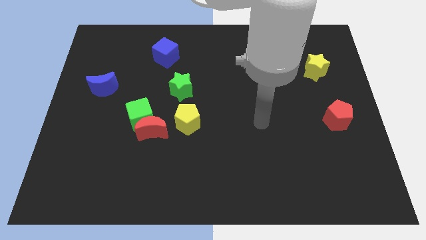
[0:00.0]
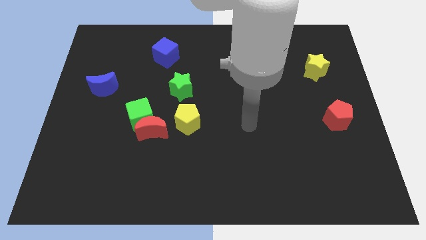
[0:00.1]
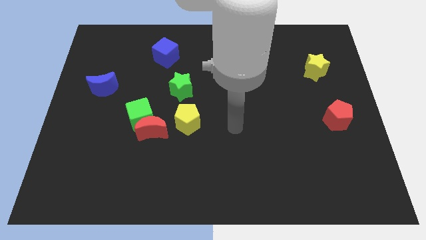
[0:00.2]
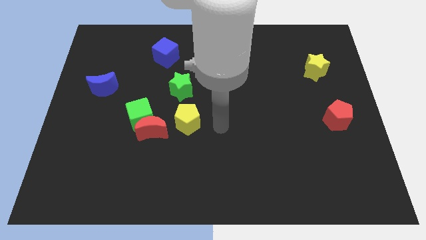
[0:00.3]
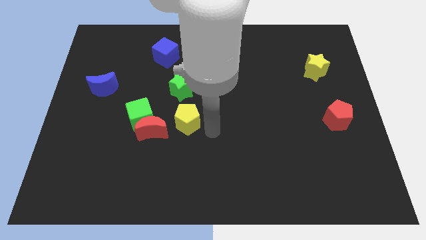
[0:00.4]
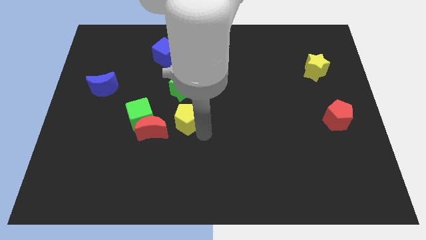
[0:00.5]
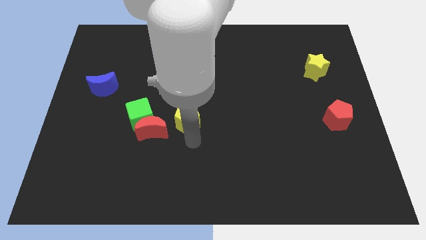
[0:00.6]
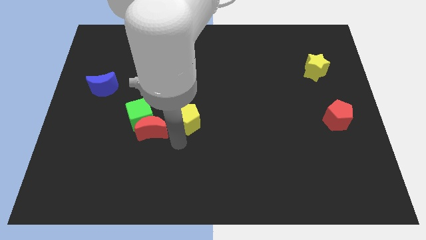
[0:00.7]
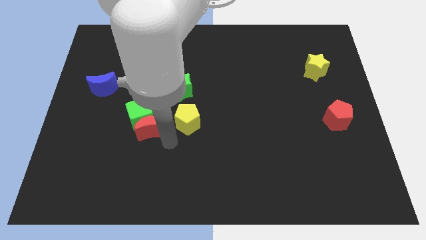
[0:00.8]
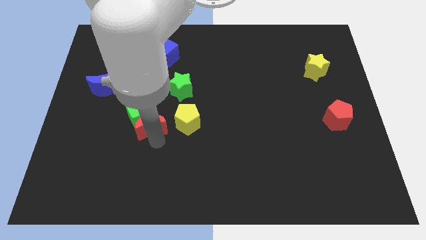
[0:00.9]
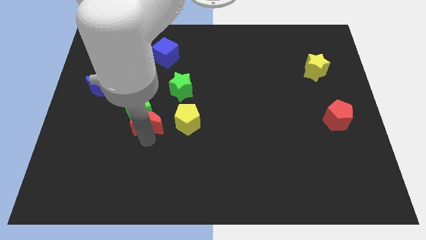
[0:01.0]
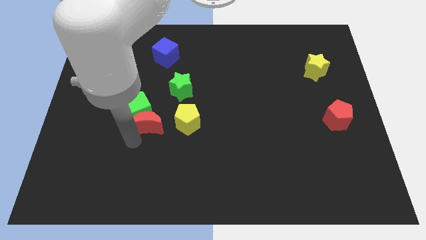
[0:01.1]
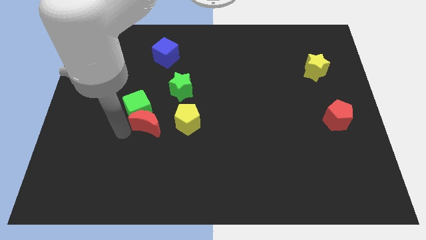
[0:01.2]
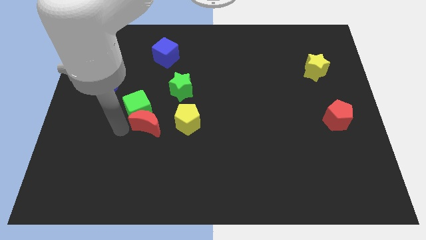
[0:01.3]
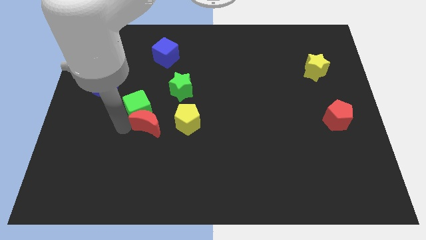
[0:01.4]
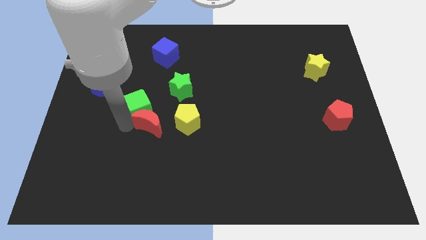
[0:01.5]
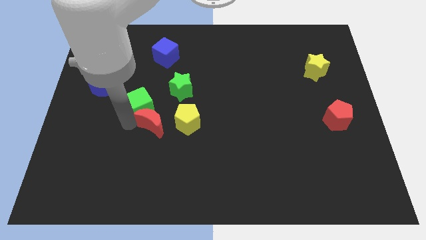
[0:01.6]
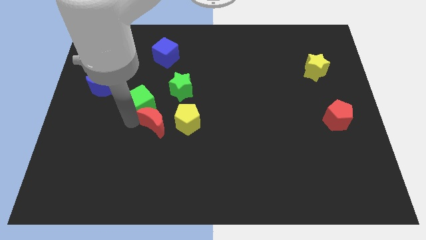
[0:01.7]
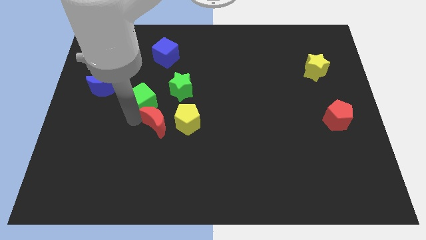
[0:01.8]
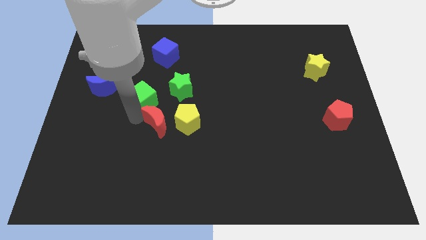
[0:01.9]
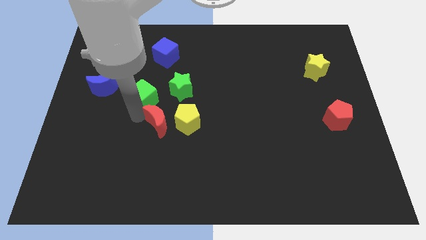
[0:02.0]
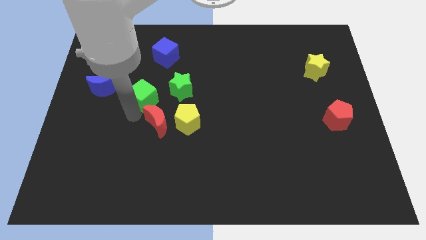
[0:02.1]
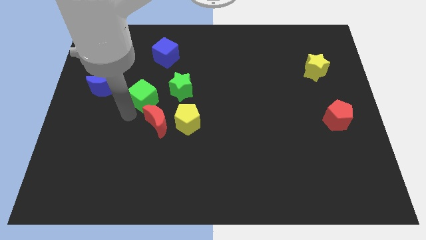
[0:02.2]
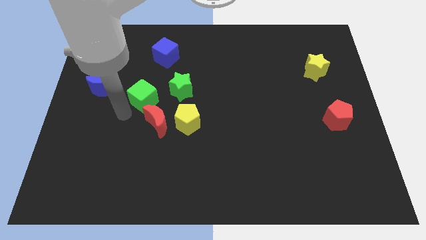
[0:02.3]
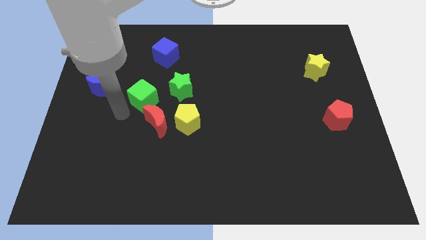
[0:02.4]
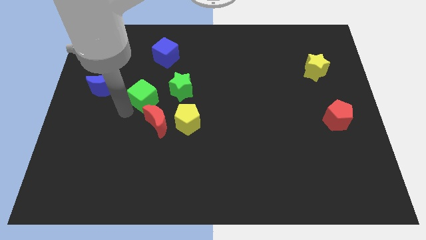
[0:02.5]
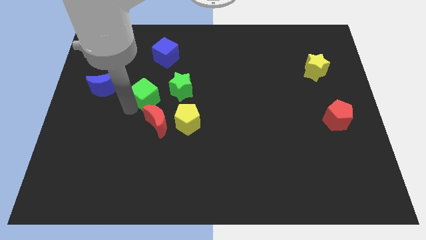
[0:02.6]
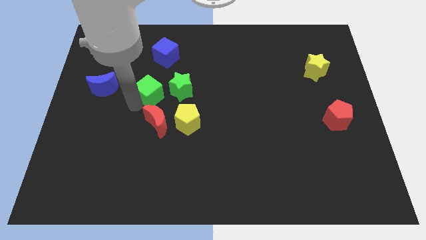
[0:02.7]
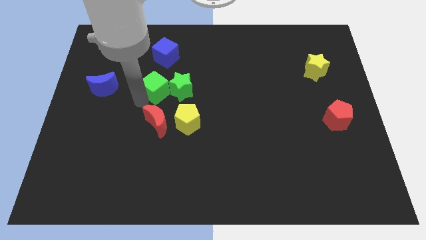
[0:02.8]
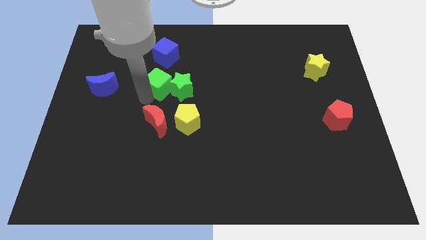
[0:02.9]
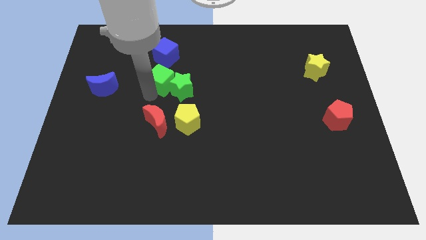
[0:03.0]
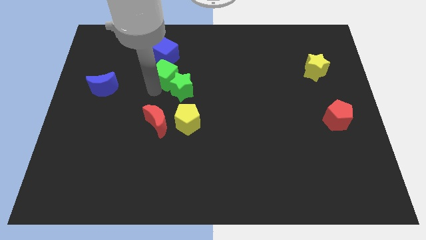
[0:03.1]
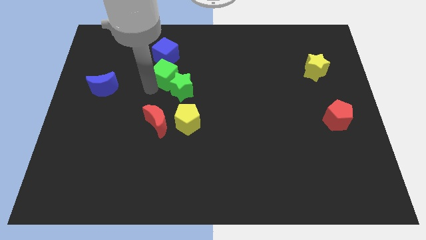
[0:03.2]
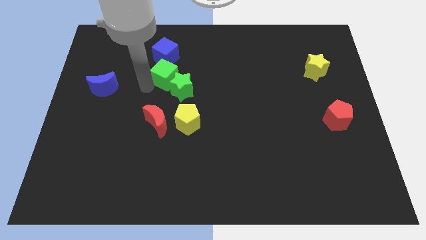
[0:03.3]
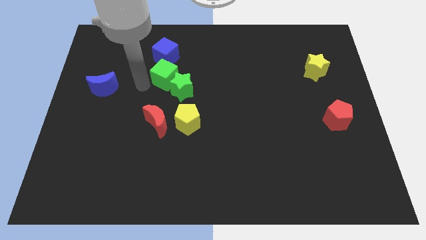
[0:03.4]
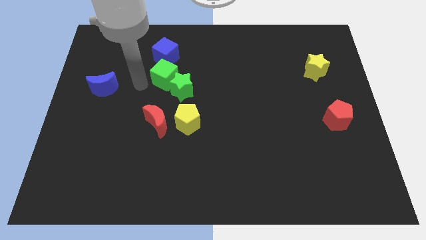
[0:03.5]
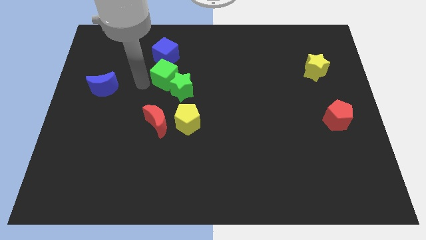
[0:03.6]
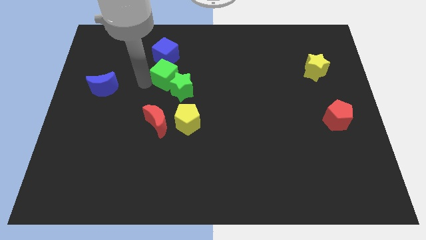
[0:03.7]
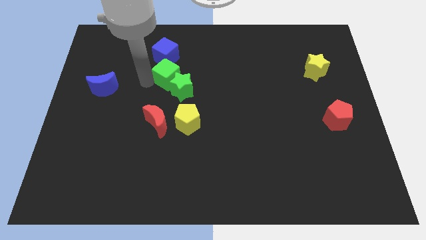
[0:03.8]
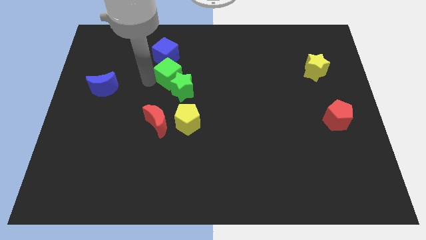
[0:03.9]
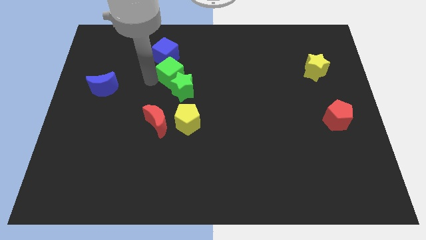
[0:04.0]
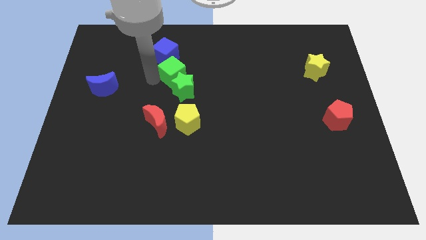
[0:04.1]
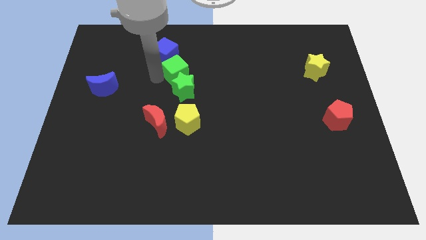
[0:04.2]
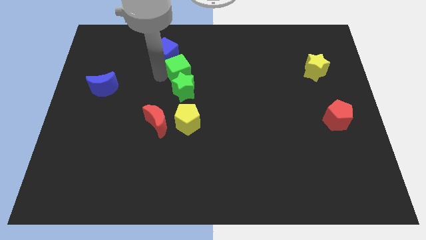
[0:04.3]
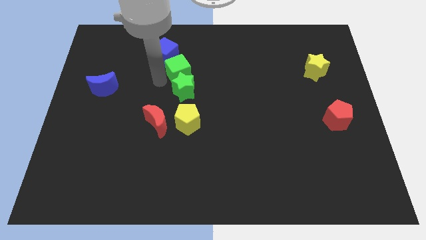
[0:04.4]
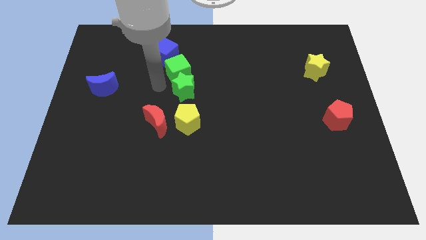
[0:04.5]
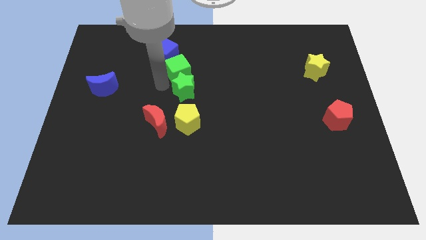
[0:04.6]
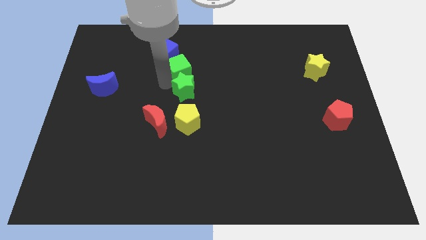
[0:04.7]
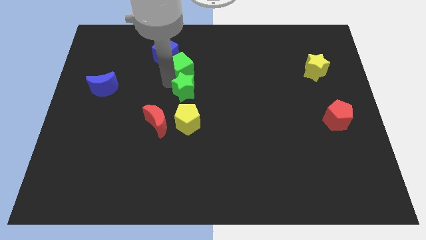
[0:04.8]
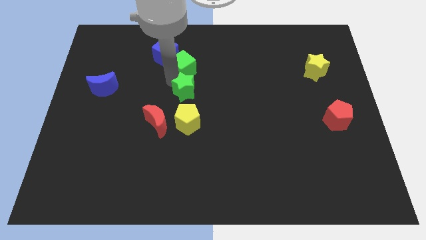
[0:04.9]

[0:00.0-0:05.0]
put the green cube right of the blue cube

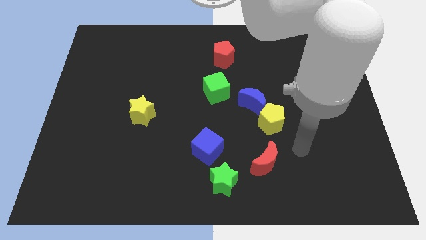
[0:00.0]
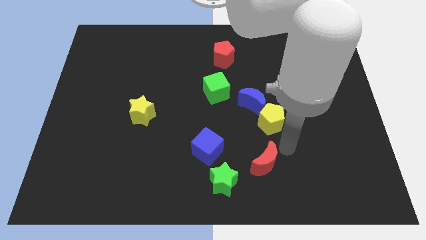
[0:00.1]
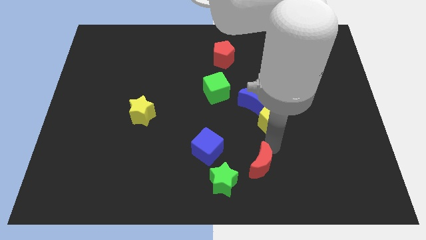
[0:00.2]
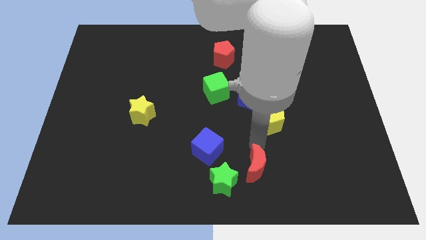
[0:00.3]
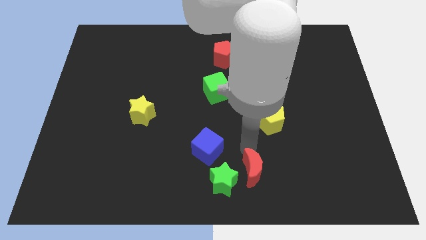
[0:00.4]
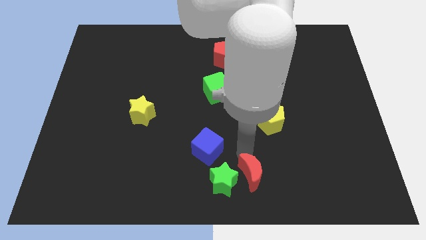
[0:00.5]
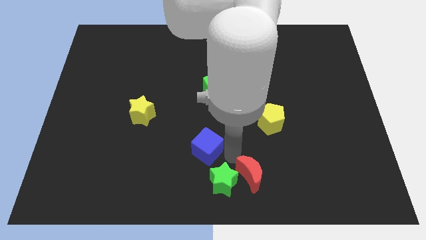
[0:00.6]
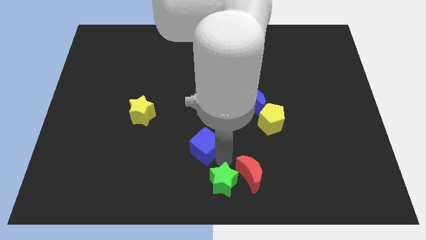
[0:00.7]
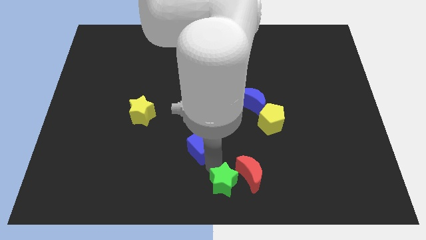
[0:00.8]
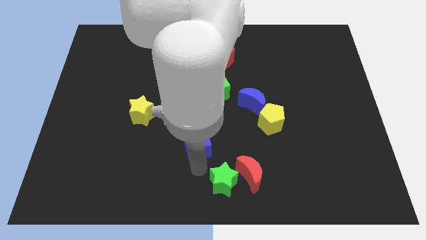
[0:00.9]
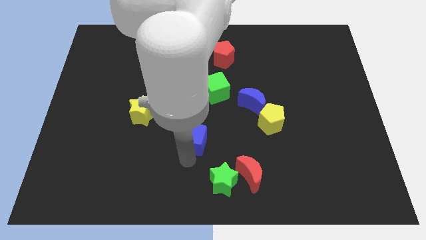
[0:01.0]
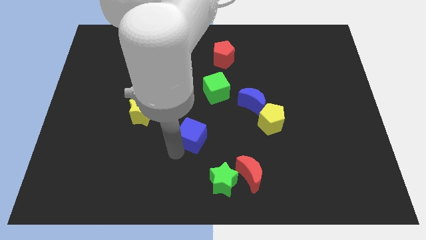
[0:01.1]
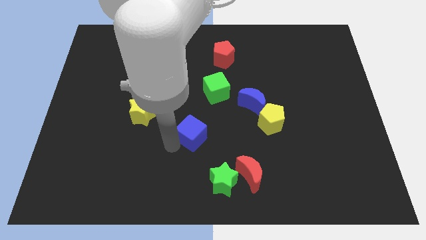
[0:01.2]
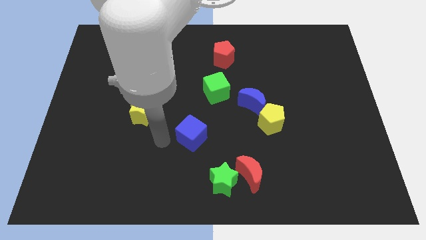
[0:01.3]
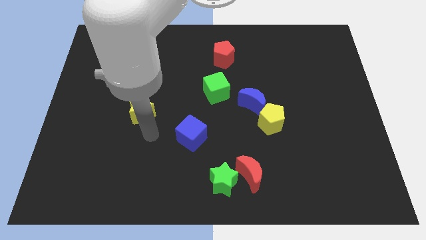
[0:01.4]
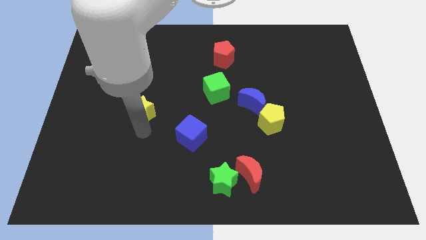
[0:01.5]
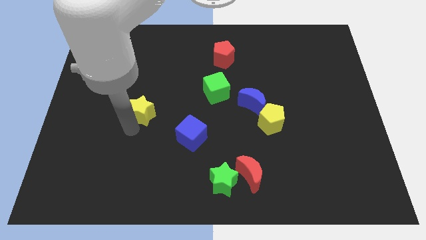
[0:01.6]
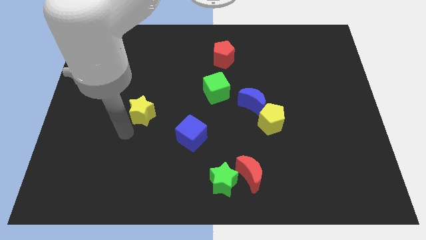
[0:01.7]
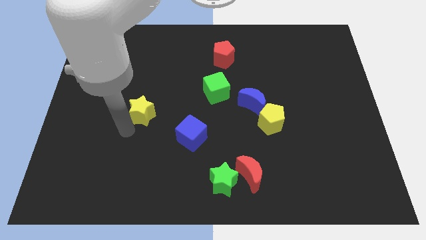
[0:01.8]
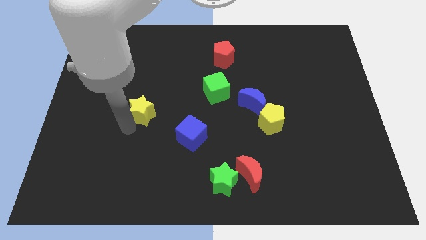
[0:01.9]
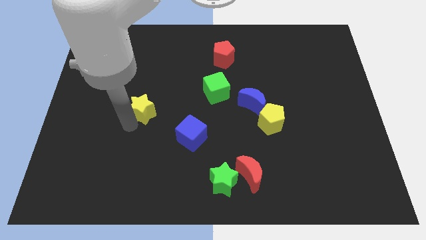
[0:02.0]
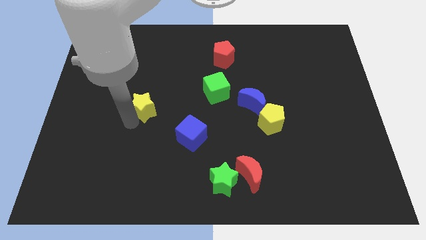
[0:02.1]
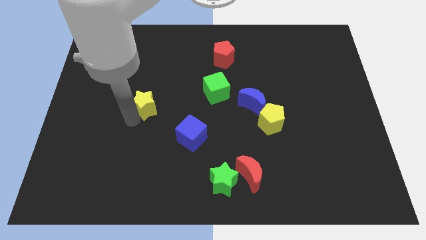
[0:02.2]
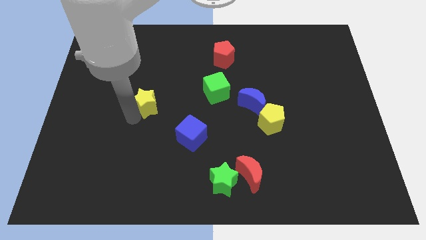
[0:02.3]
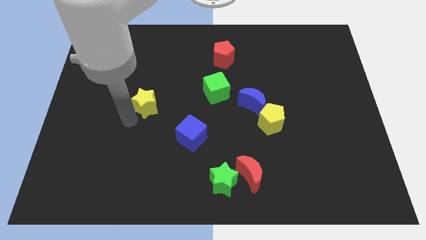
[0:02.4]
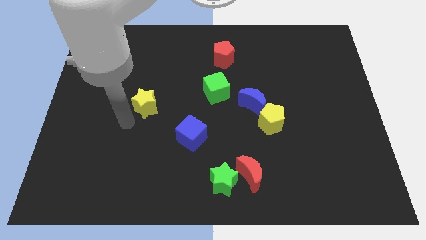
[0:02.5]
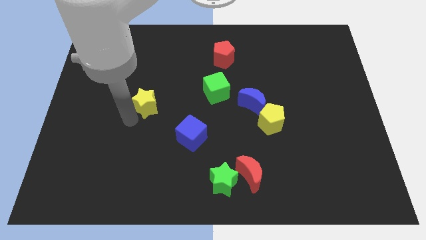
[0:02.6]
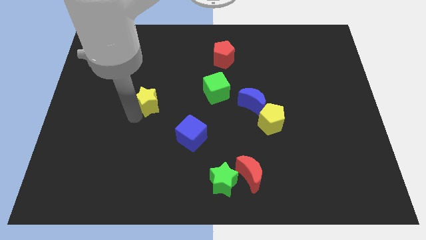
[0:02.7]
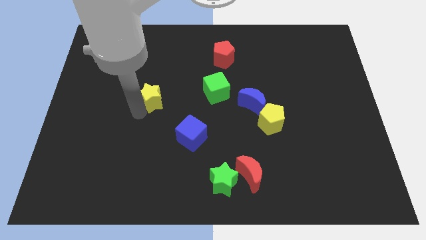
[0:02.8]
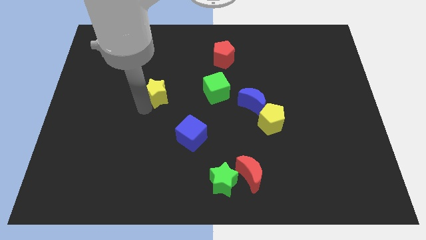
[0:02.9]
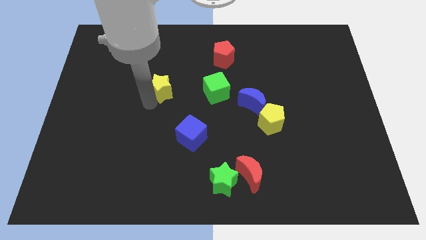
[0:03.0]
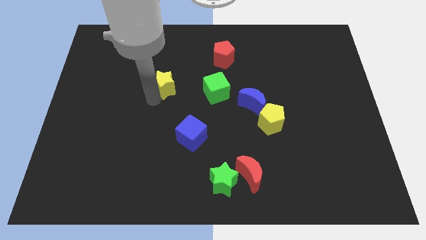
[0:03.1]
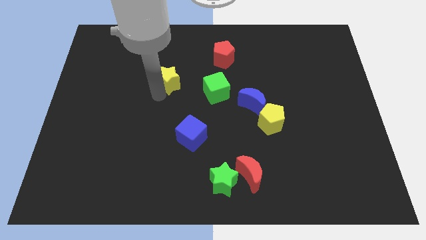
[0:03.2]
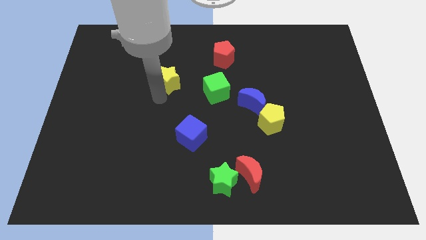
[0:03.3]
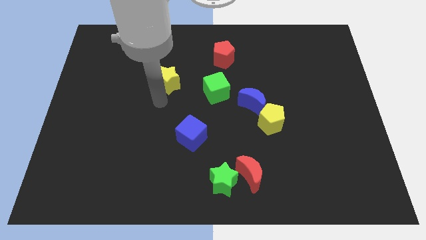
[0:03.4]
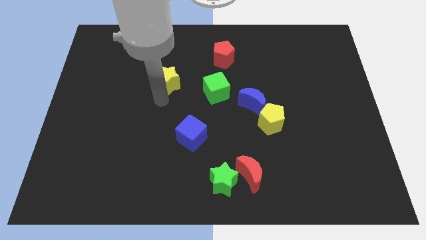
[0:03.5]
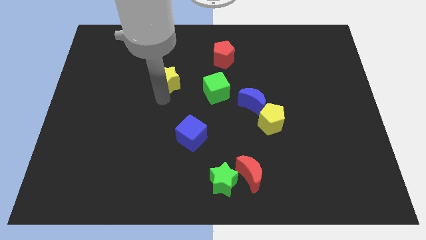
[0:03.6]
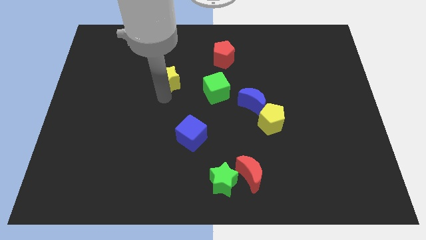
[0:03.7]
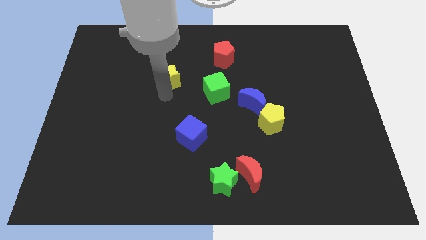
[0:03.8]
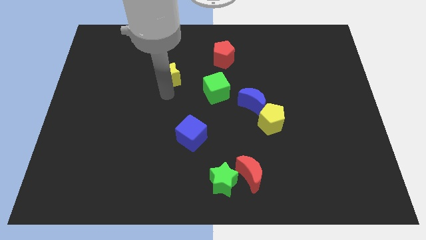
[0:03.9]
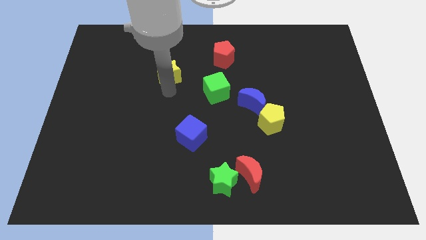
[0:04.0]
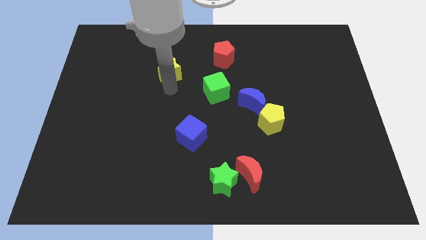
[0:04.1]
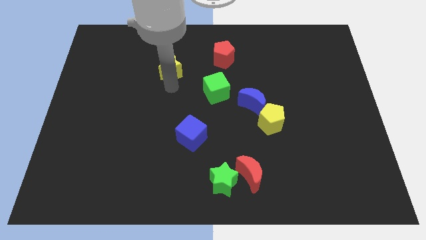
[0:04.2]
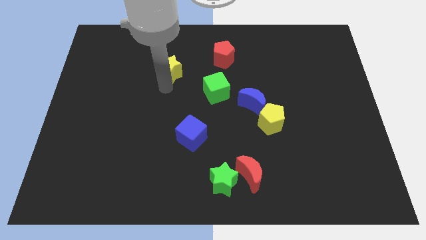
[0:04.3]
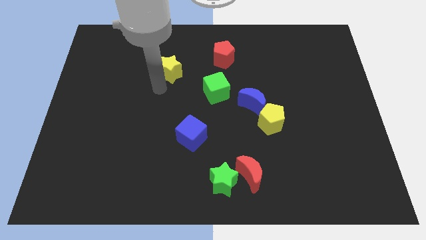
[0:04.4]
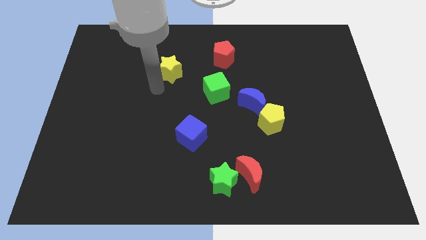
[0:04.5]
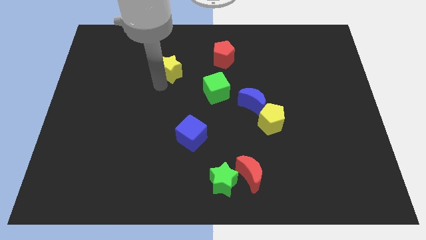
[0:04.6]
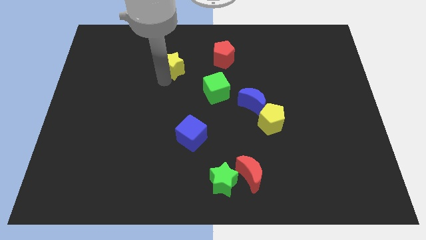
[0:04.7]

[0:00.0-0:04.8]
move the yellow star to the left of the red pentagon
